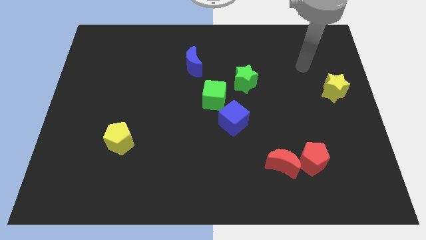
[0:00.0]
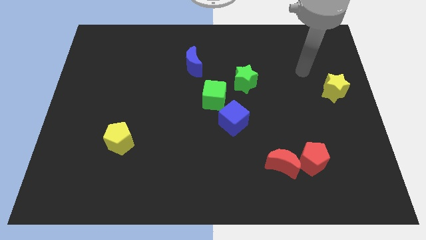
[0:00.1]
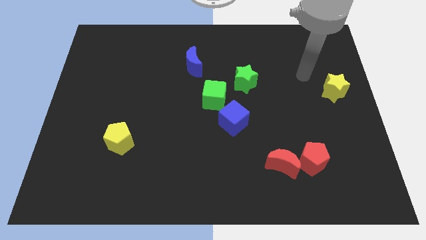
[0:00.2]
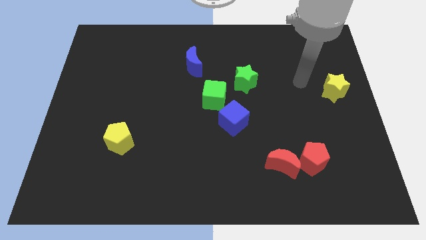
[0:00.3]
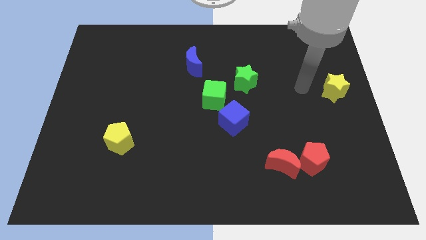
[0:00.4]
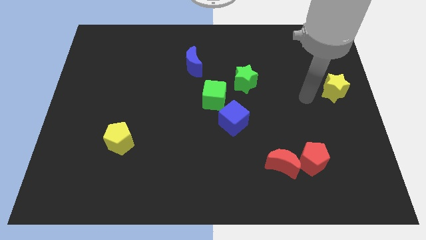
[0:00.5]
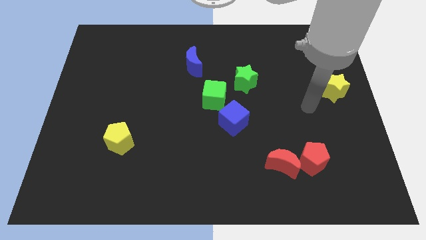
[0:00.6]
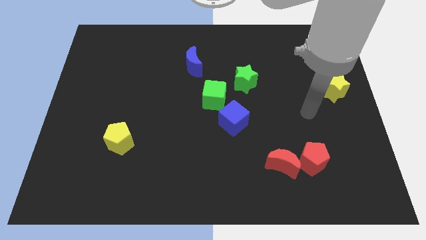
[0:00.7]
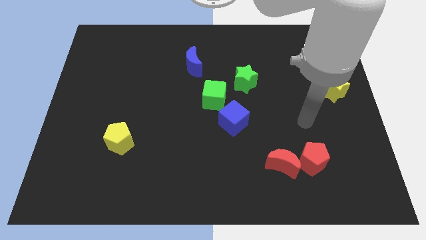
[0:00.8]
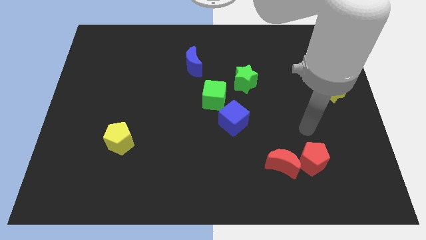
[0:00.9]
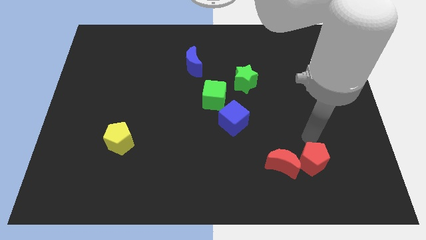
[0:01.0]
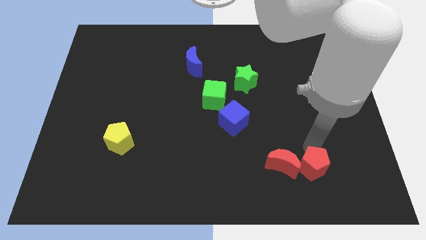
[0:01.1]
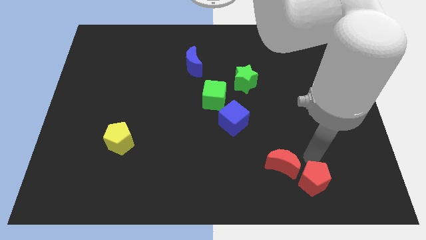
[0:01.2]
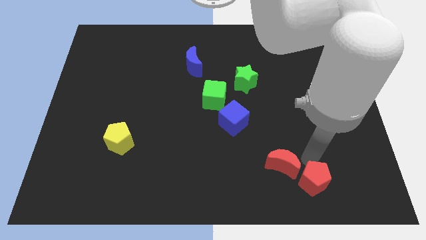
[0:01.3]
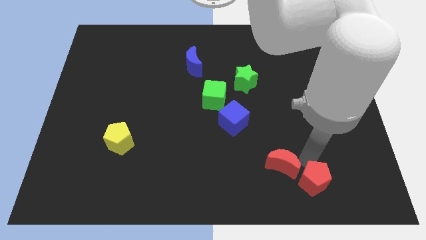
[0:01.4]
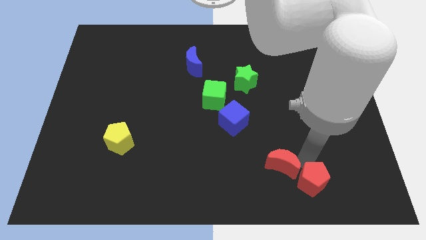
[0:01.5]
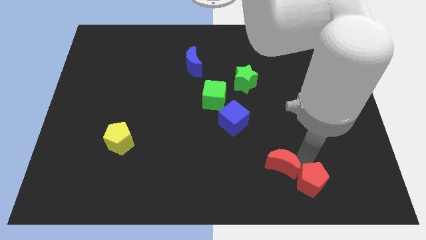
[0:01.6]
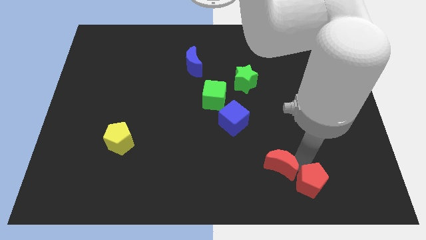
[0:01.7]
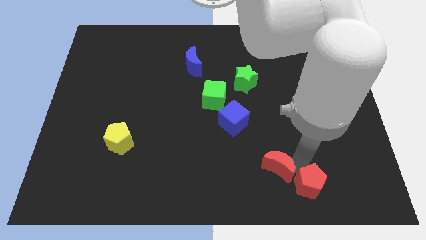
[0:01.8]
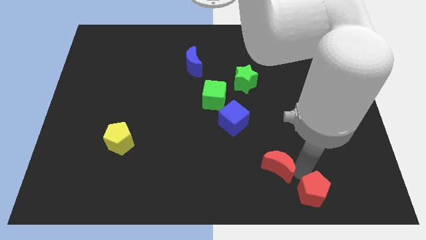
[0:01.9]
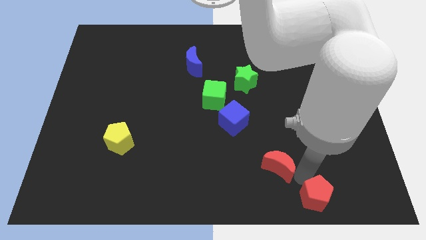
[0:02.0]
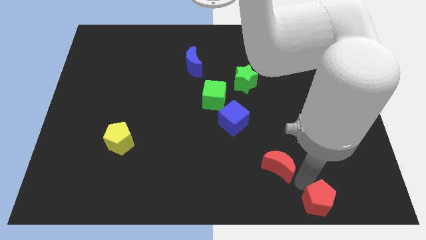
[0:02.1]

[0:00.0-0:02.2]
move the red moon away from the red pentagon

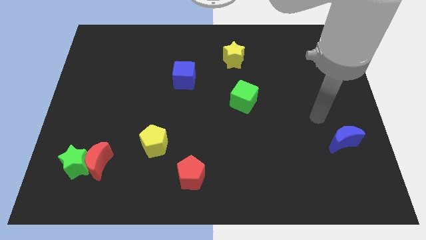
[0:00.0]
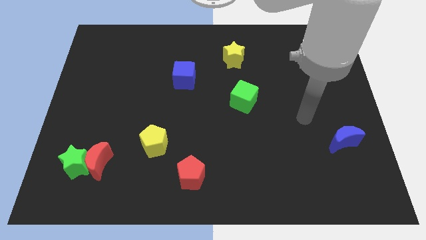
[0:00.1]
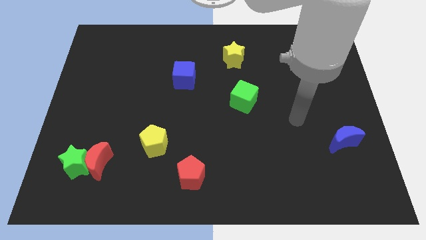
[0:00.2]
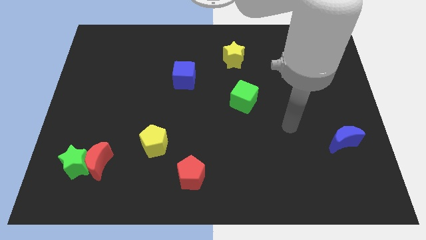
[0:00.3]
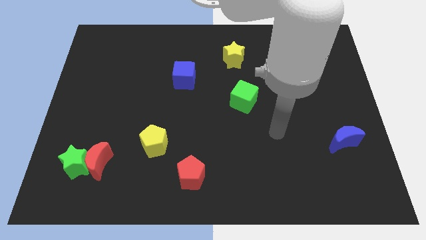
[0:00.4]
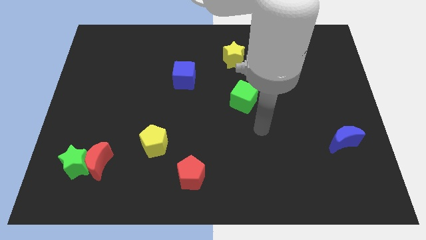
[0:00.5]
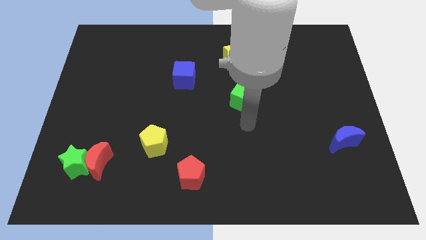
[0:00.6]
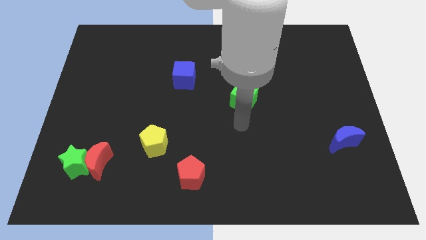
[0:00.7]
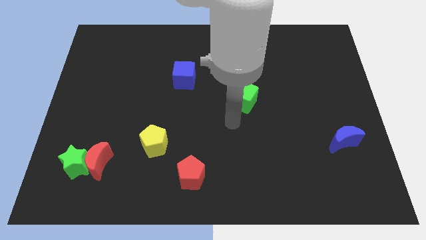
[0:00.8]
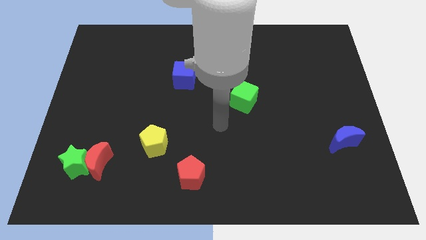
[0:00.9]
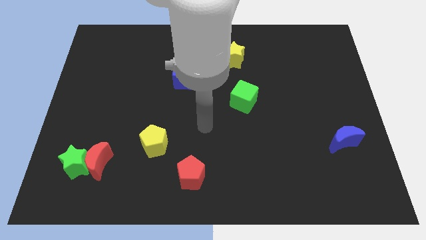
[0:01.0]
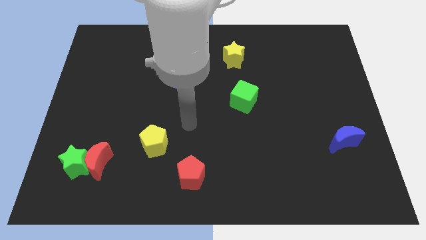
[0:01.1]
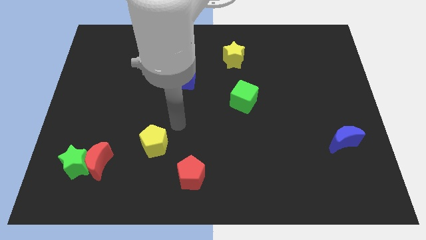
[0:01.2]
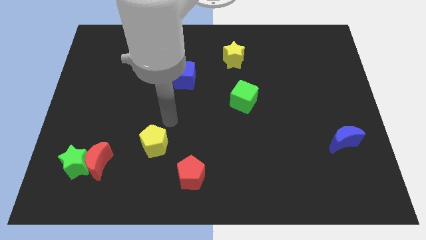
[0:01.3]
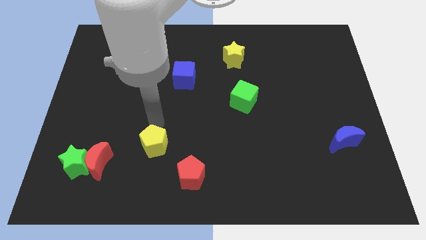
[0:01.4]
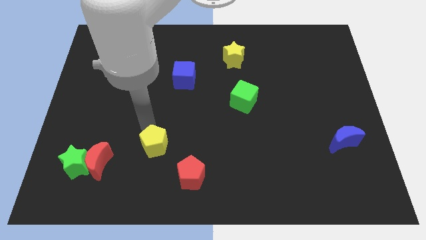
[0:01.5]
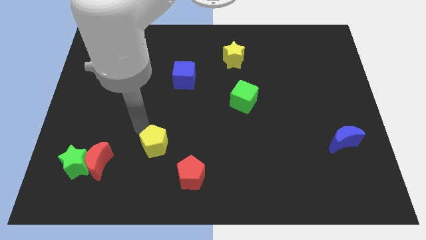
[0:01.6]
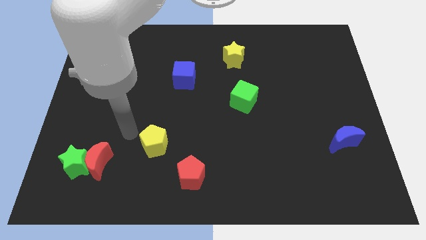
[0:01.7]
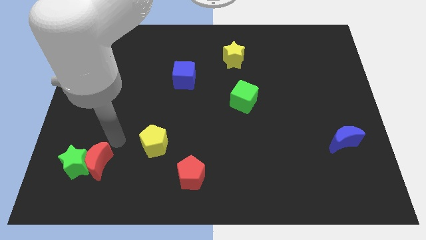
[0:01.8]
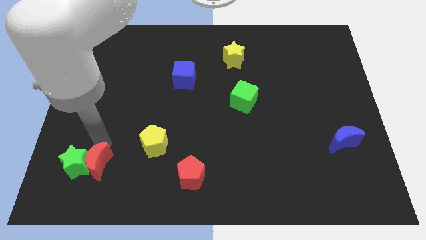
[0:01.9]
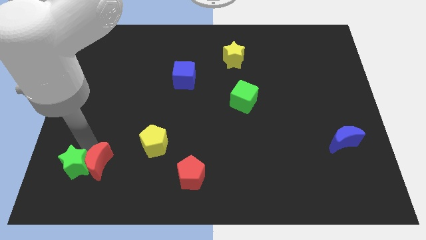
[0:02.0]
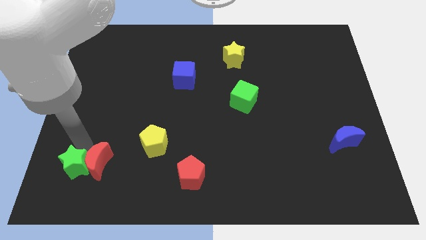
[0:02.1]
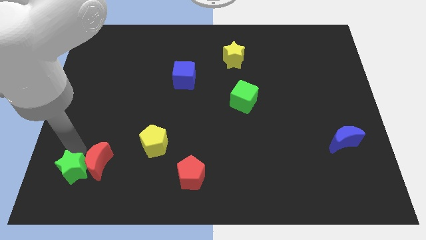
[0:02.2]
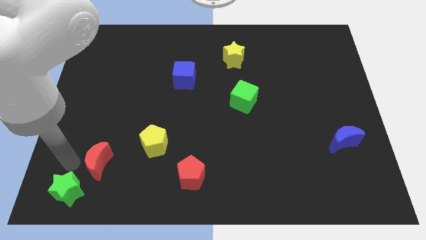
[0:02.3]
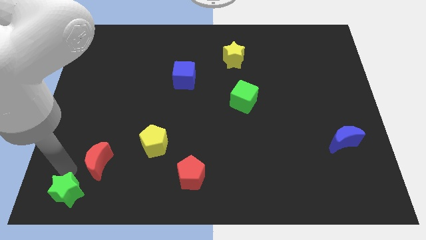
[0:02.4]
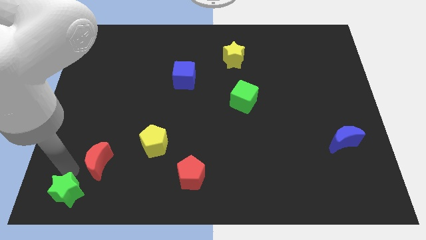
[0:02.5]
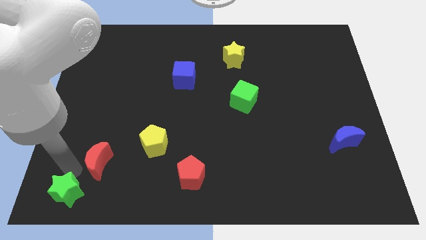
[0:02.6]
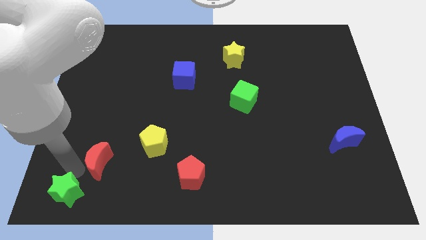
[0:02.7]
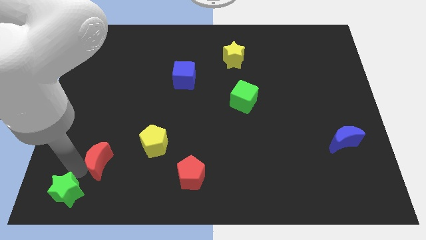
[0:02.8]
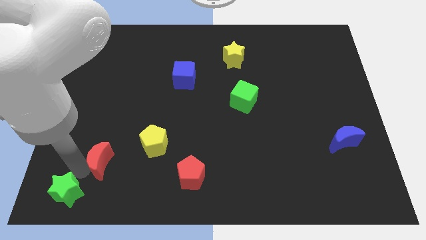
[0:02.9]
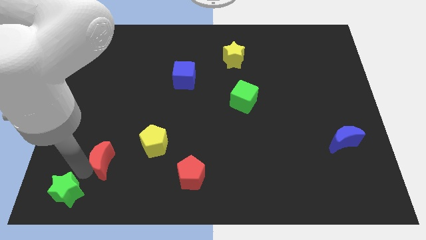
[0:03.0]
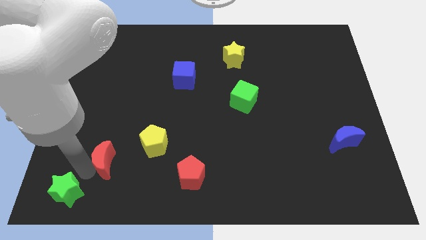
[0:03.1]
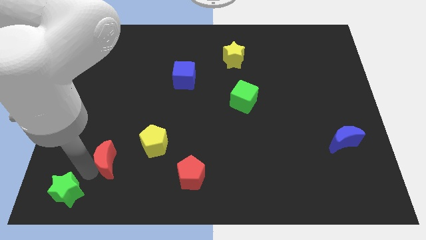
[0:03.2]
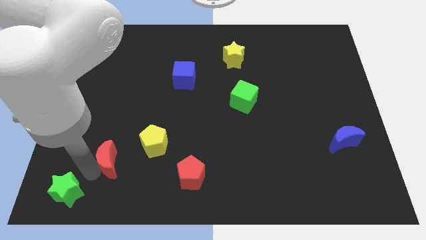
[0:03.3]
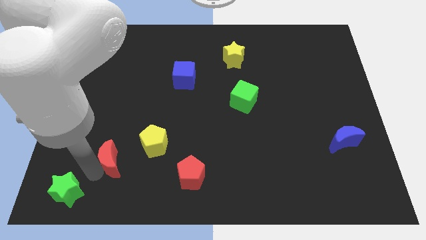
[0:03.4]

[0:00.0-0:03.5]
move the red moon away from the green star

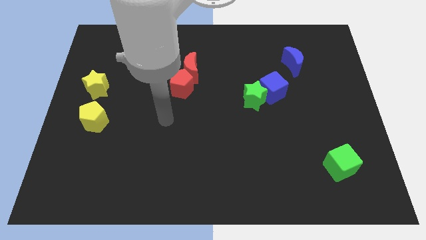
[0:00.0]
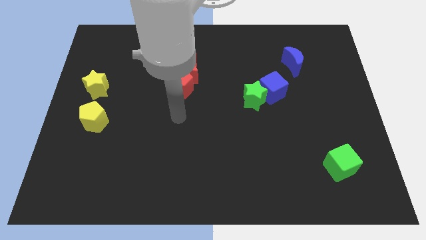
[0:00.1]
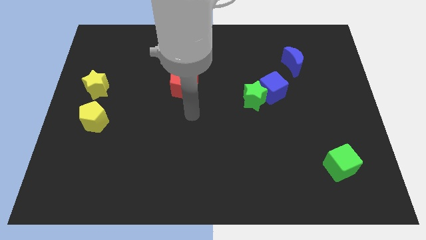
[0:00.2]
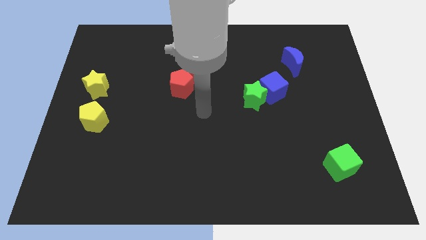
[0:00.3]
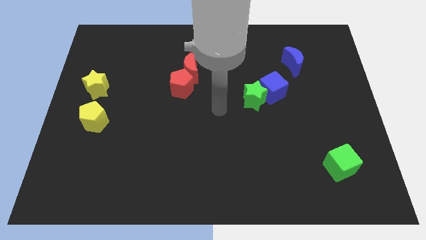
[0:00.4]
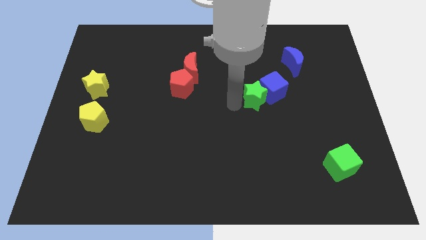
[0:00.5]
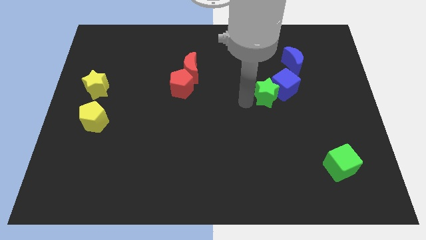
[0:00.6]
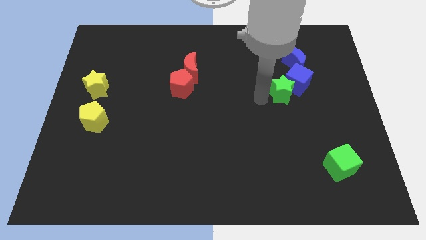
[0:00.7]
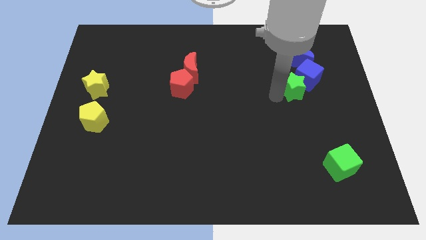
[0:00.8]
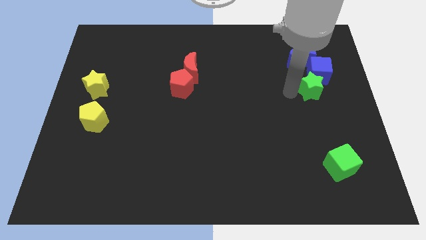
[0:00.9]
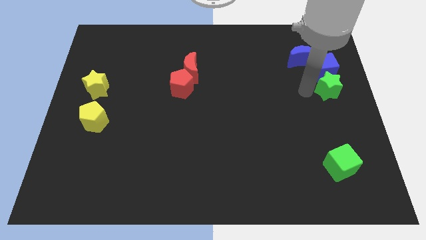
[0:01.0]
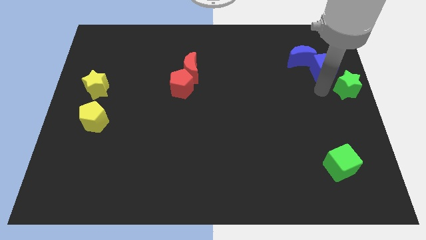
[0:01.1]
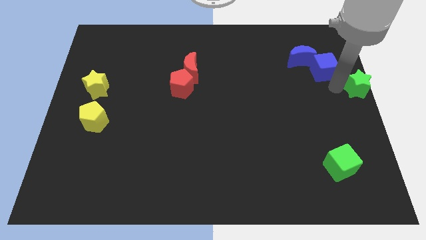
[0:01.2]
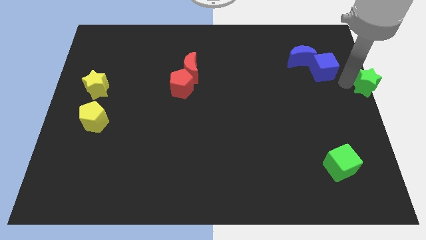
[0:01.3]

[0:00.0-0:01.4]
move the blue cube away from the green star

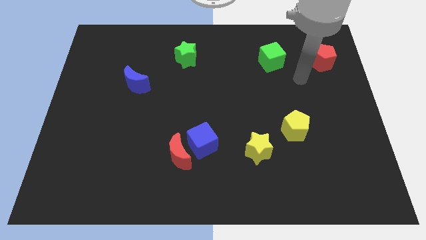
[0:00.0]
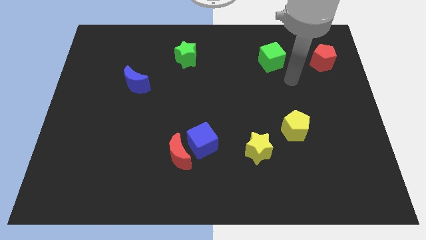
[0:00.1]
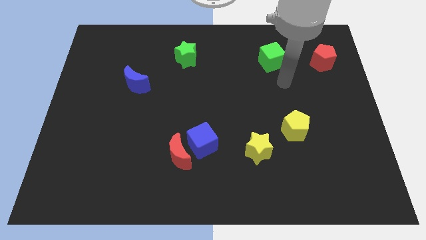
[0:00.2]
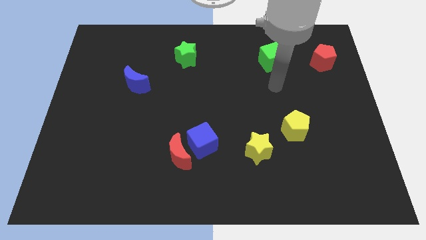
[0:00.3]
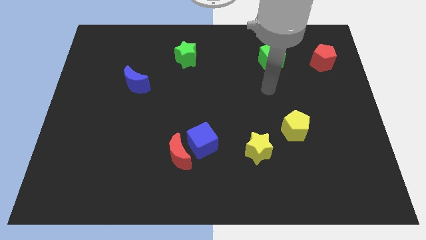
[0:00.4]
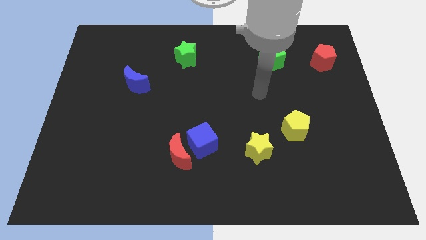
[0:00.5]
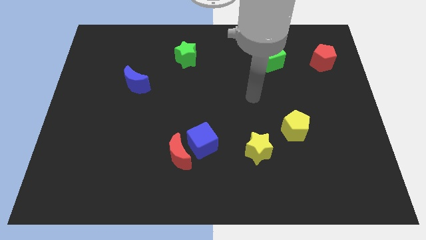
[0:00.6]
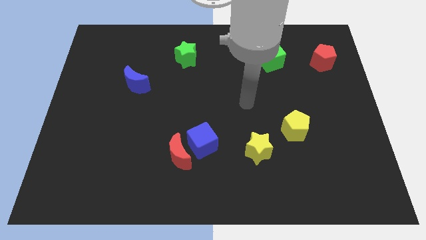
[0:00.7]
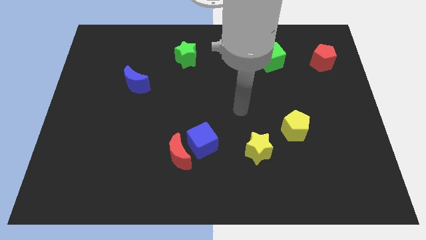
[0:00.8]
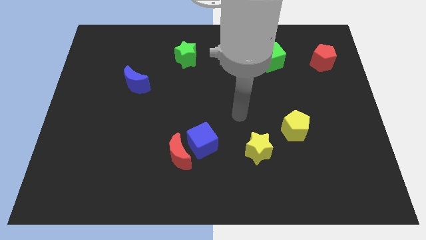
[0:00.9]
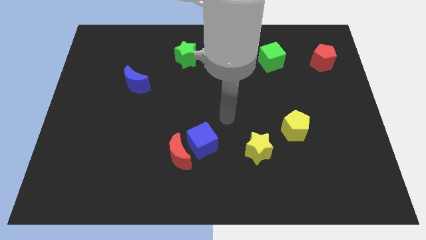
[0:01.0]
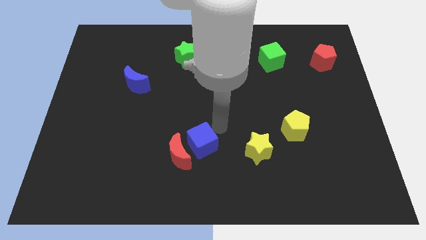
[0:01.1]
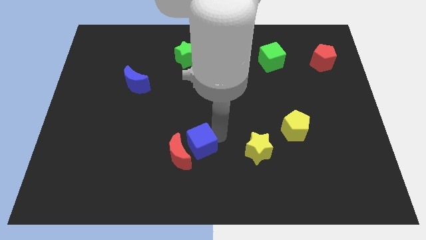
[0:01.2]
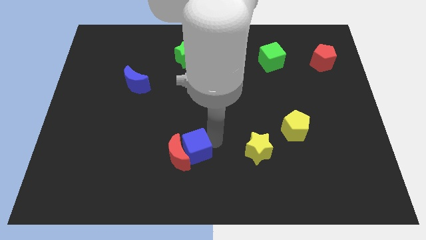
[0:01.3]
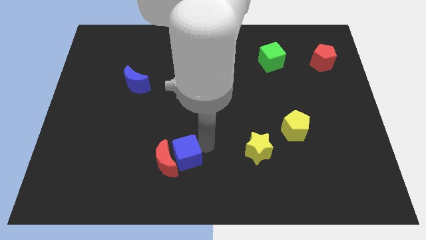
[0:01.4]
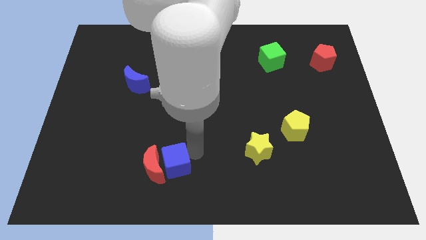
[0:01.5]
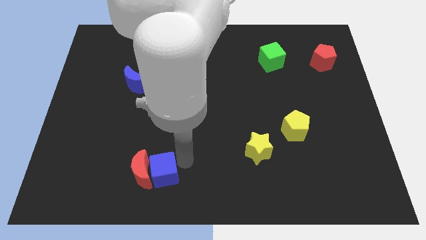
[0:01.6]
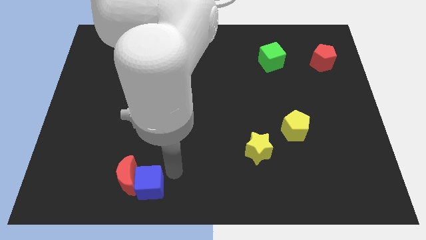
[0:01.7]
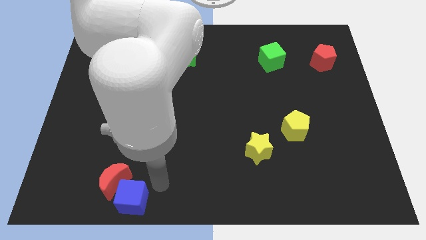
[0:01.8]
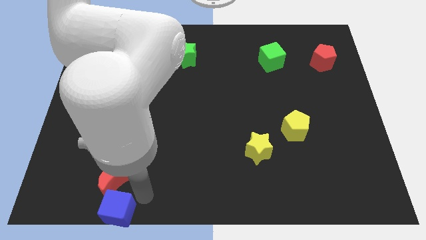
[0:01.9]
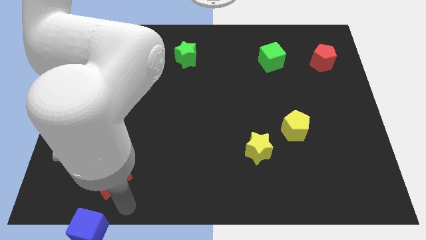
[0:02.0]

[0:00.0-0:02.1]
pull the red moon apart from the blue cube

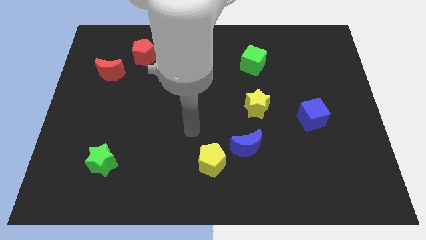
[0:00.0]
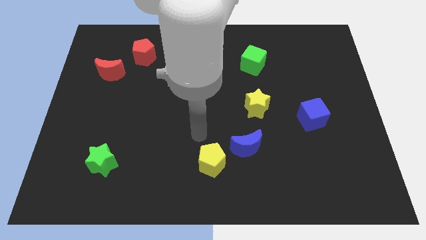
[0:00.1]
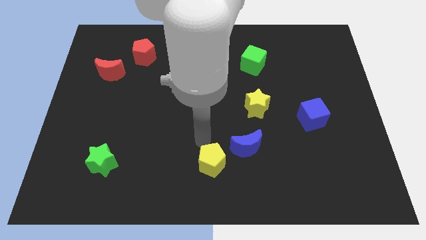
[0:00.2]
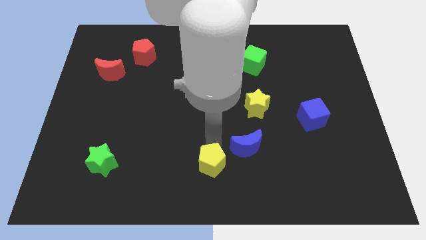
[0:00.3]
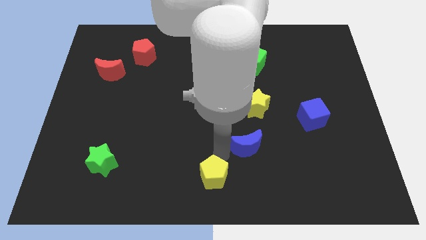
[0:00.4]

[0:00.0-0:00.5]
separate the blue moon from the yellow pentagon
